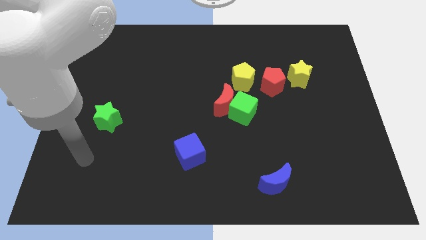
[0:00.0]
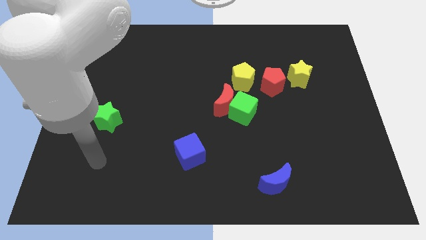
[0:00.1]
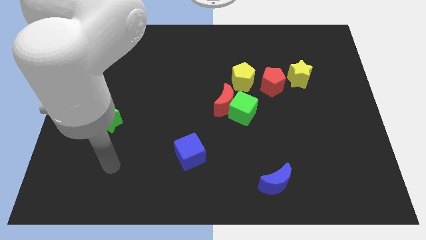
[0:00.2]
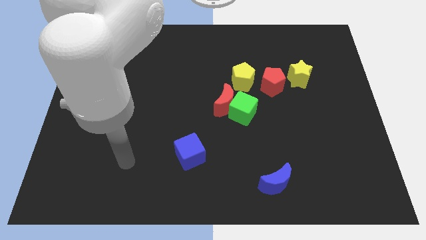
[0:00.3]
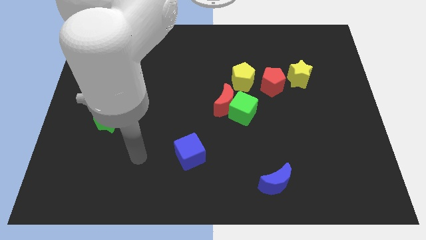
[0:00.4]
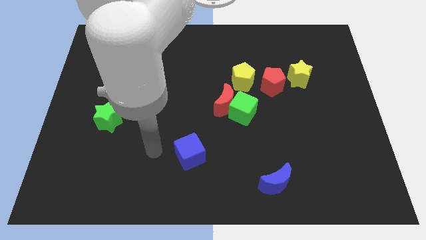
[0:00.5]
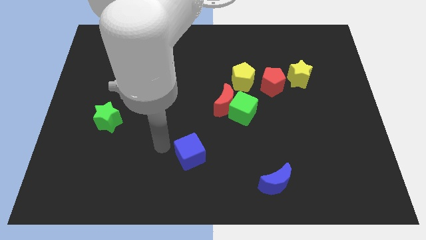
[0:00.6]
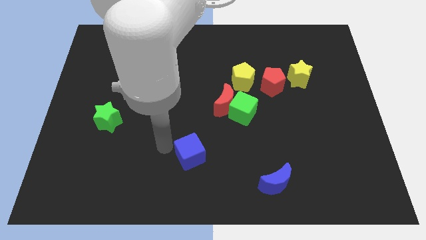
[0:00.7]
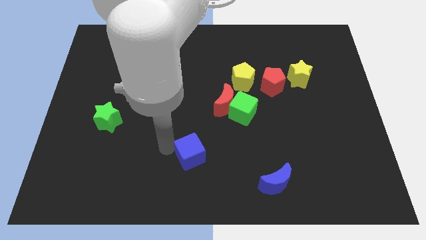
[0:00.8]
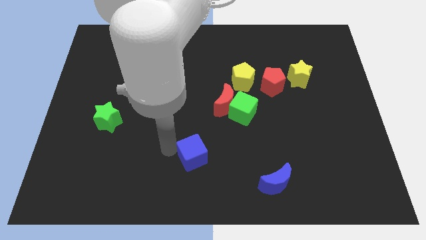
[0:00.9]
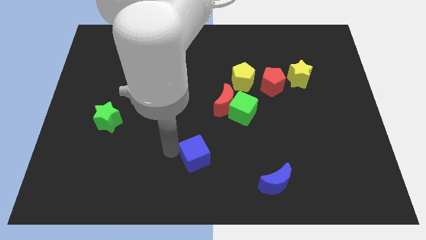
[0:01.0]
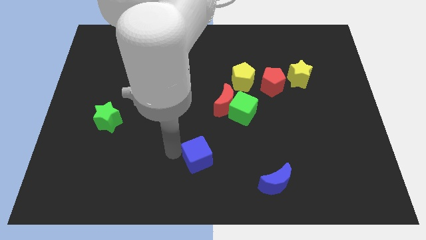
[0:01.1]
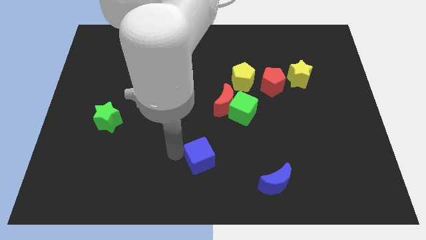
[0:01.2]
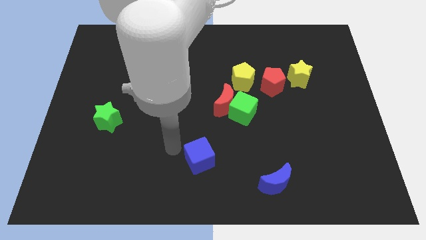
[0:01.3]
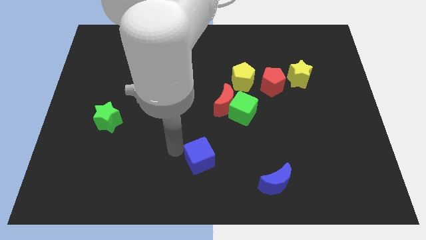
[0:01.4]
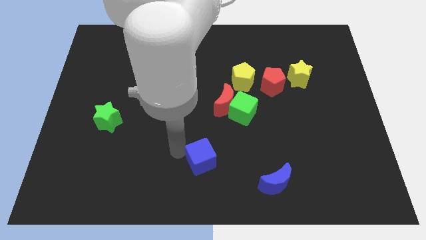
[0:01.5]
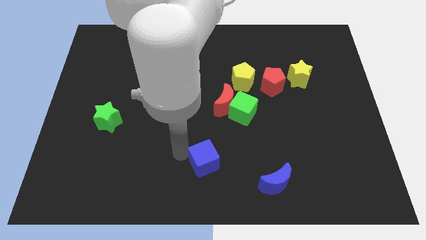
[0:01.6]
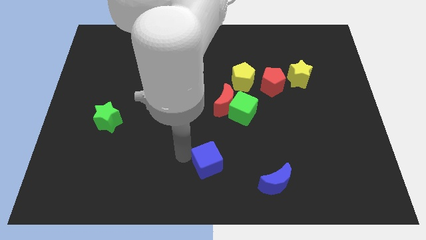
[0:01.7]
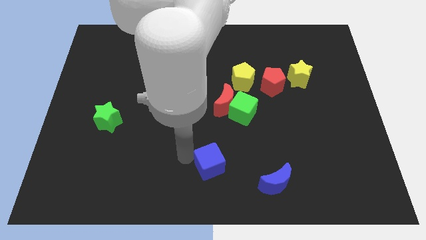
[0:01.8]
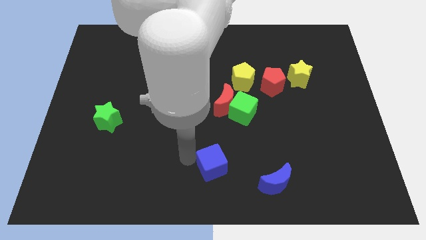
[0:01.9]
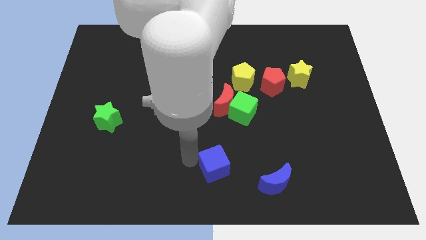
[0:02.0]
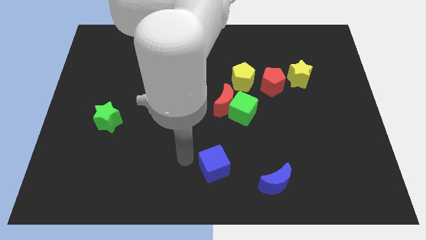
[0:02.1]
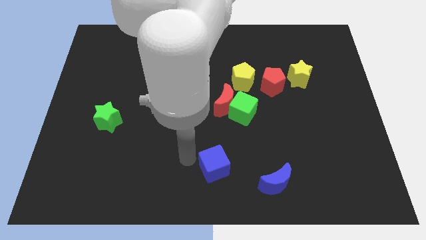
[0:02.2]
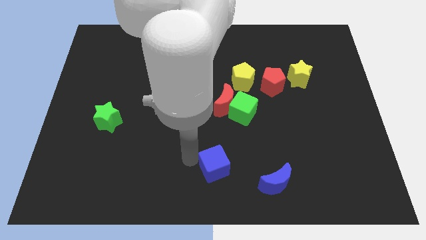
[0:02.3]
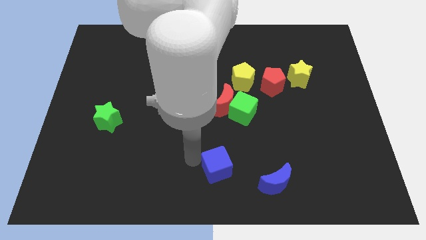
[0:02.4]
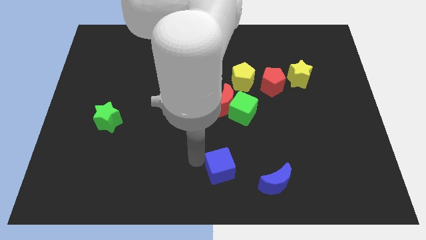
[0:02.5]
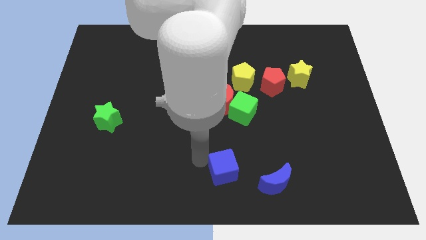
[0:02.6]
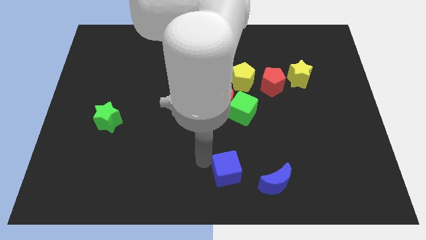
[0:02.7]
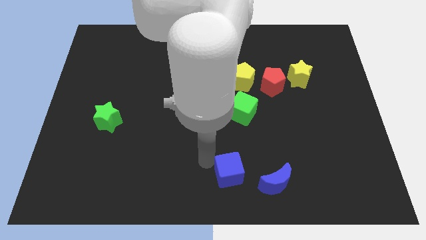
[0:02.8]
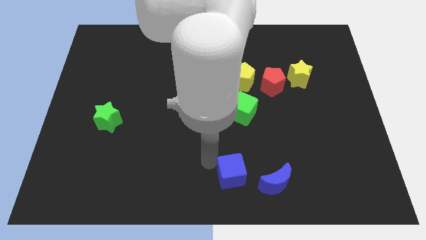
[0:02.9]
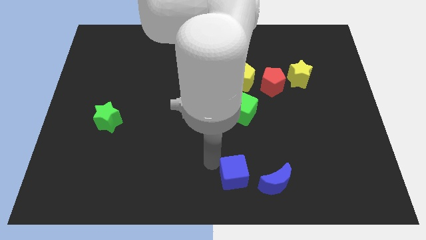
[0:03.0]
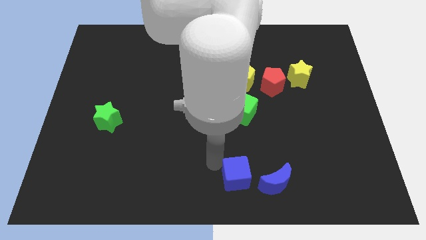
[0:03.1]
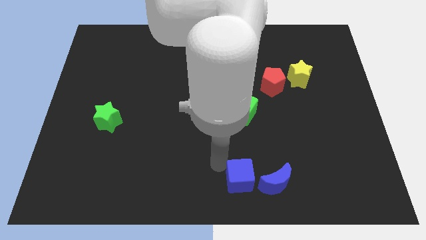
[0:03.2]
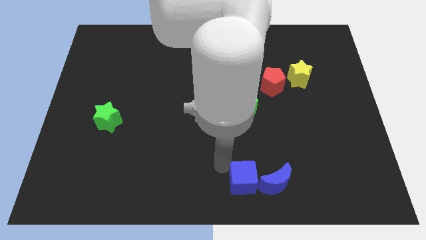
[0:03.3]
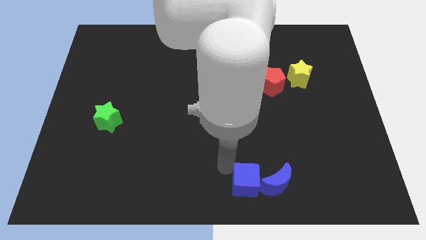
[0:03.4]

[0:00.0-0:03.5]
move the blue cube towards the blue moon

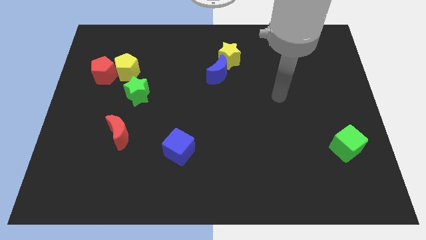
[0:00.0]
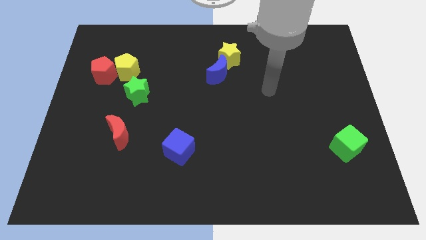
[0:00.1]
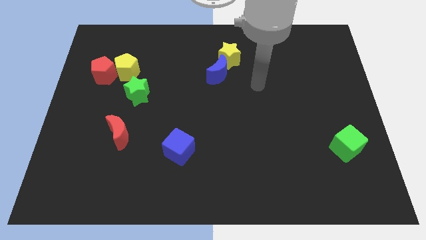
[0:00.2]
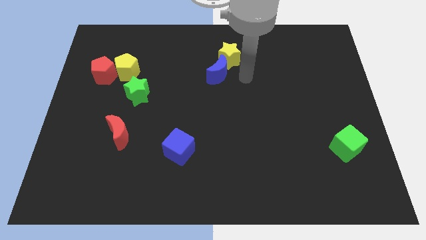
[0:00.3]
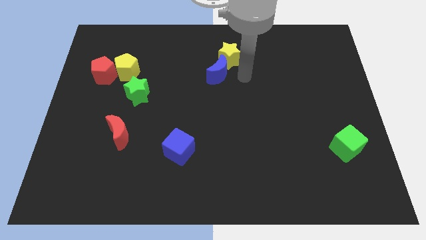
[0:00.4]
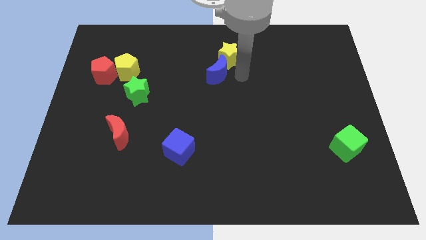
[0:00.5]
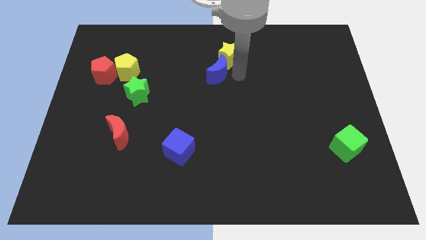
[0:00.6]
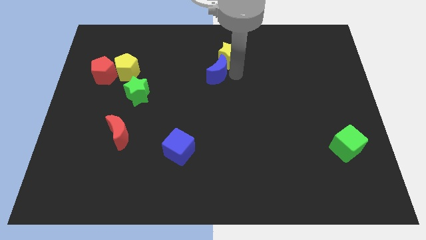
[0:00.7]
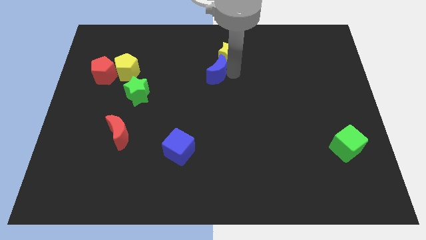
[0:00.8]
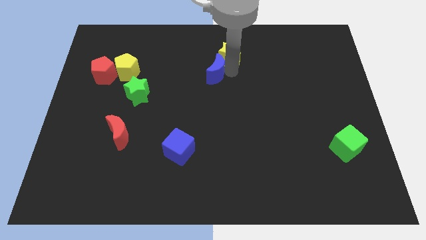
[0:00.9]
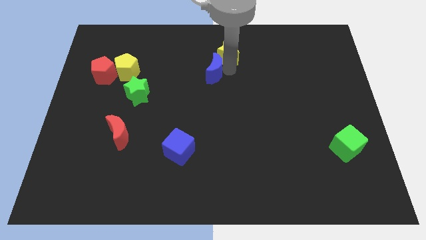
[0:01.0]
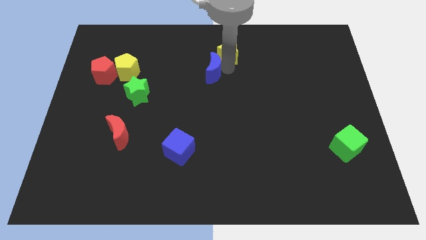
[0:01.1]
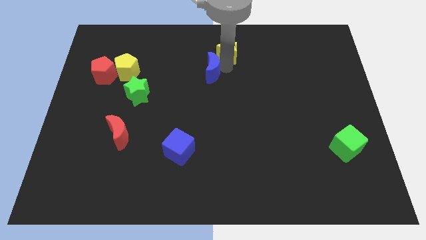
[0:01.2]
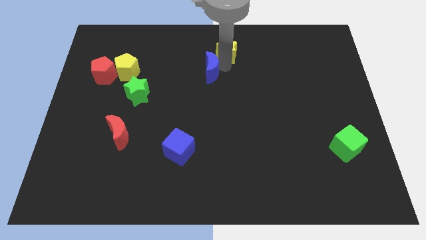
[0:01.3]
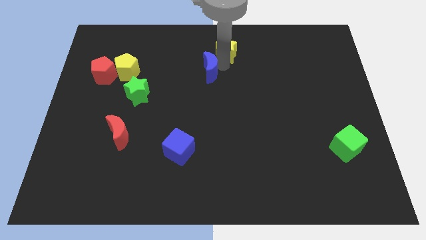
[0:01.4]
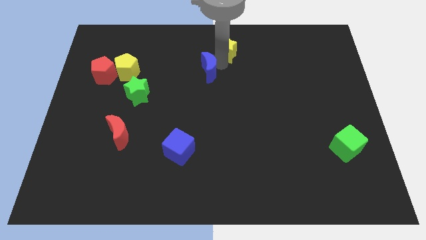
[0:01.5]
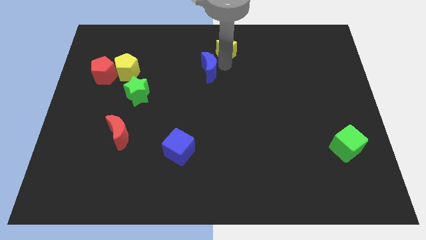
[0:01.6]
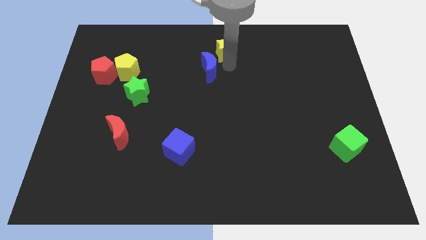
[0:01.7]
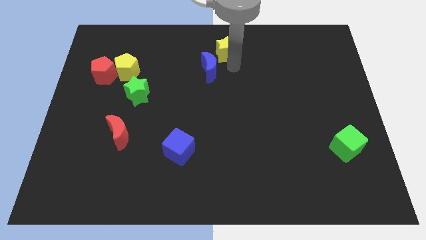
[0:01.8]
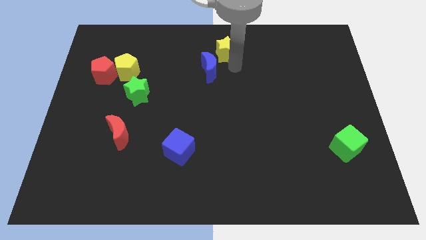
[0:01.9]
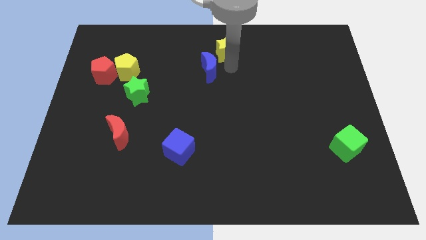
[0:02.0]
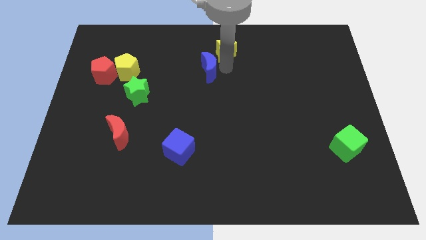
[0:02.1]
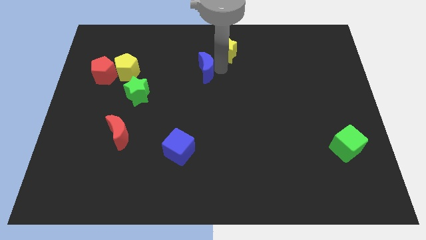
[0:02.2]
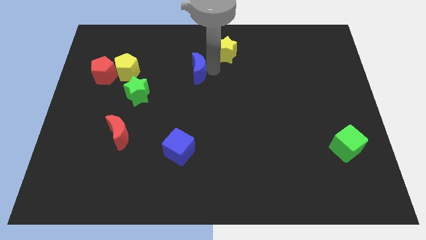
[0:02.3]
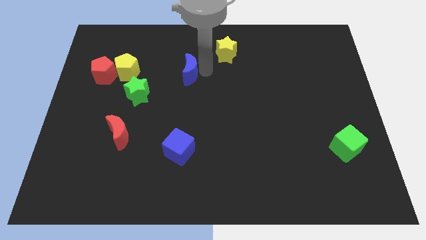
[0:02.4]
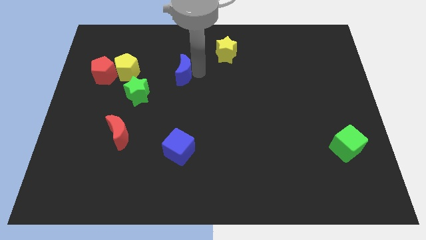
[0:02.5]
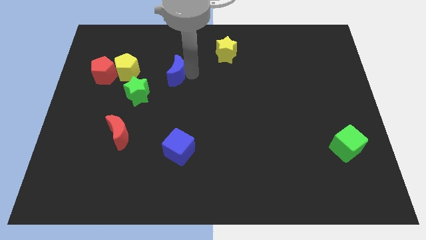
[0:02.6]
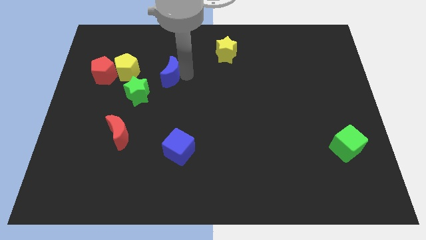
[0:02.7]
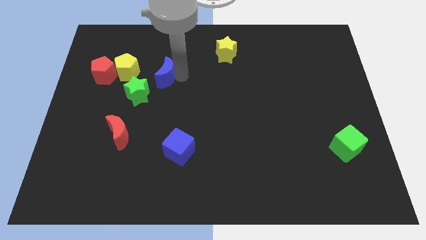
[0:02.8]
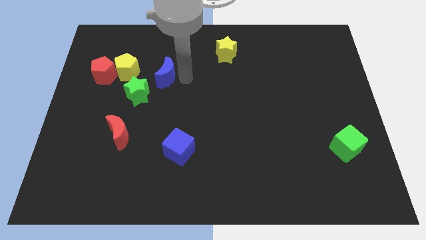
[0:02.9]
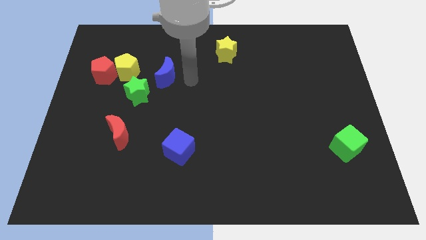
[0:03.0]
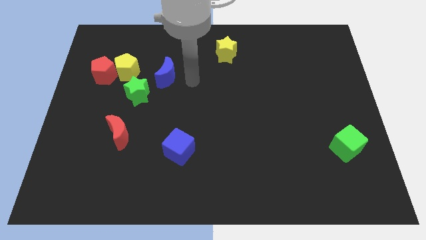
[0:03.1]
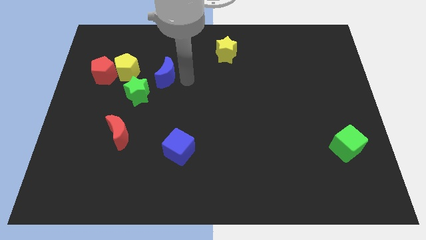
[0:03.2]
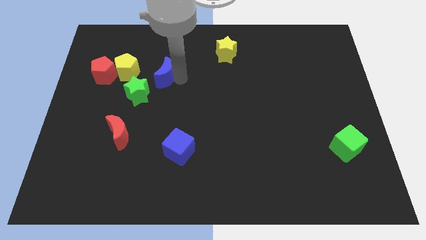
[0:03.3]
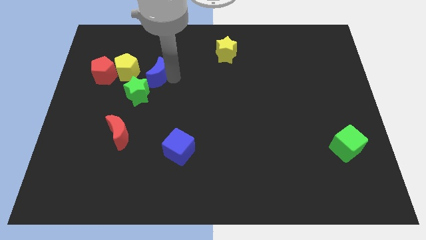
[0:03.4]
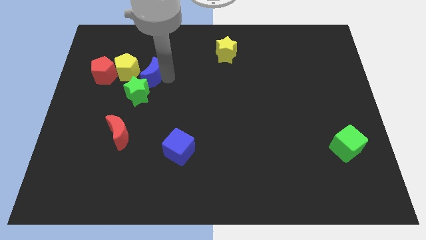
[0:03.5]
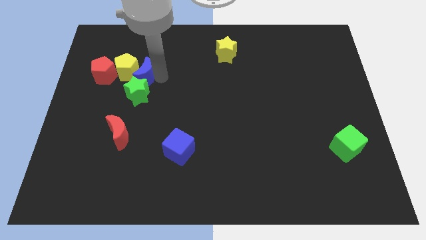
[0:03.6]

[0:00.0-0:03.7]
slide the blue moon towards the yellow pentagon
